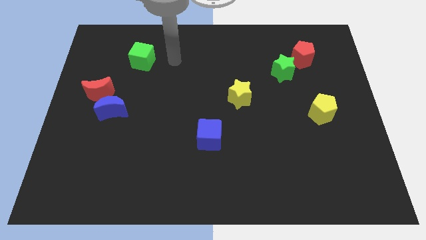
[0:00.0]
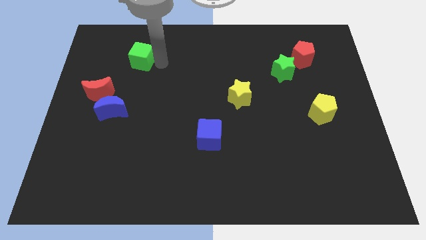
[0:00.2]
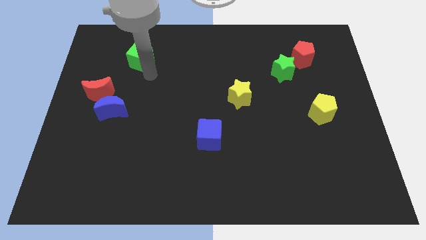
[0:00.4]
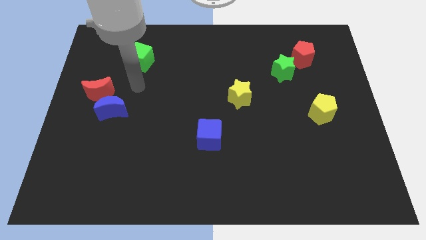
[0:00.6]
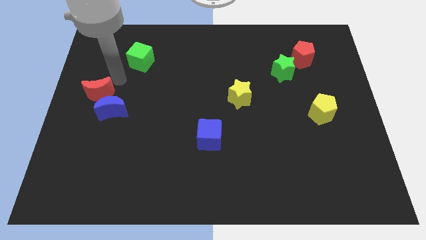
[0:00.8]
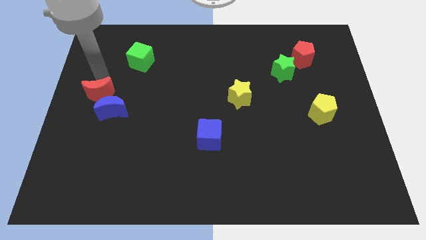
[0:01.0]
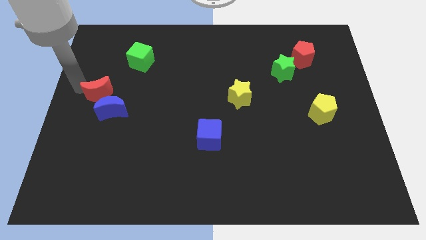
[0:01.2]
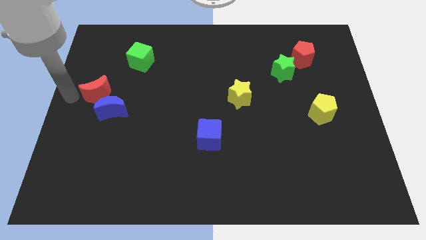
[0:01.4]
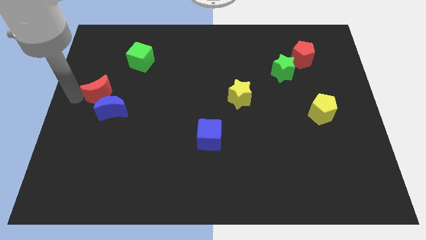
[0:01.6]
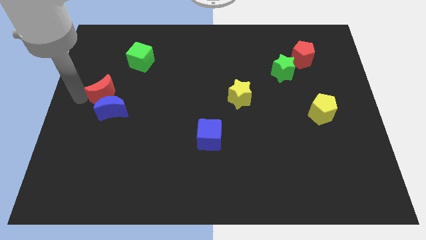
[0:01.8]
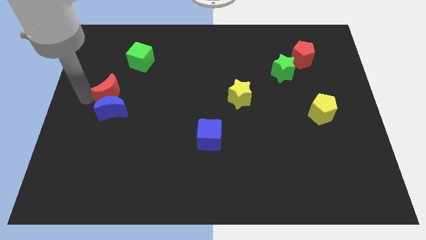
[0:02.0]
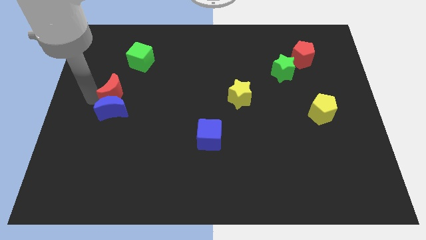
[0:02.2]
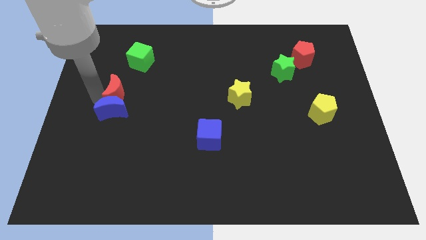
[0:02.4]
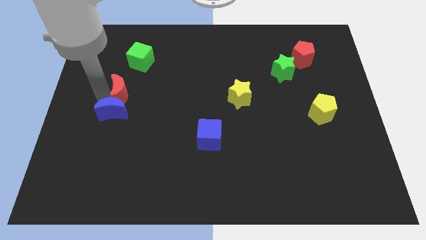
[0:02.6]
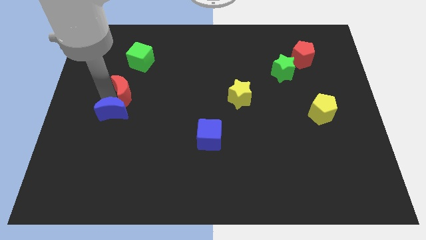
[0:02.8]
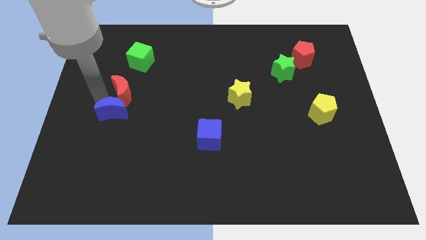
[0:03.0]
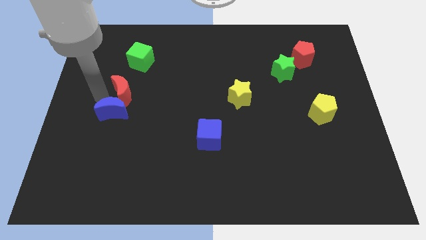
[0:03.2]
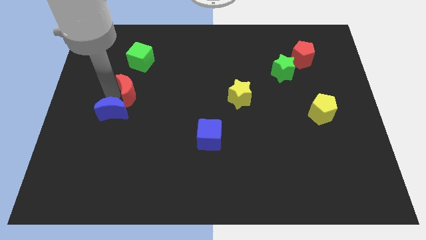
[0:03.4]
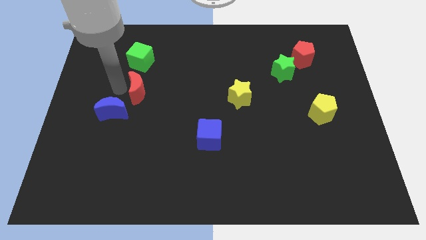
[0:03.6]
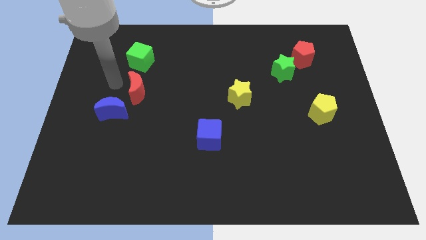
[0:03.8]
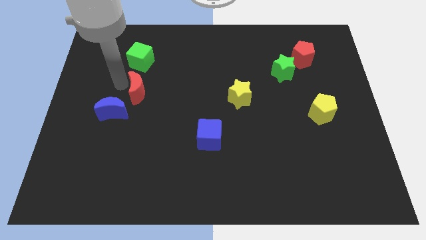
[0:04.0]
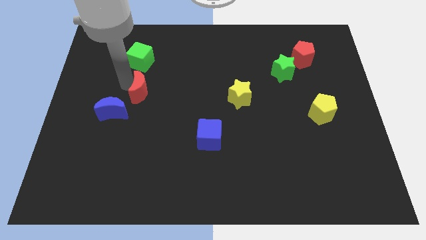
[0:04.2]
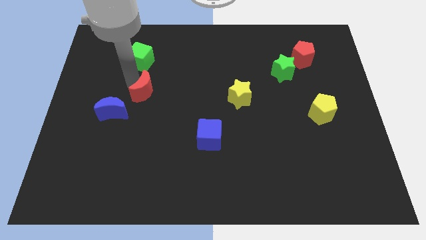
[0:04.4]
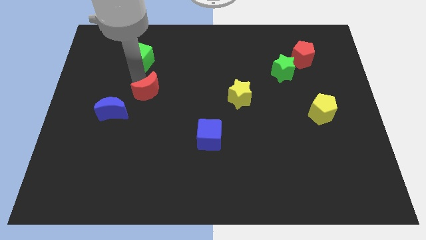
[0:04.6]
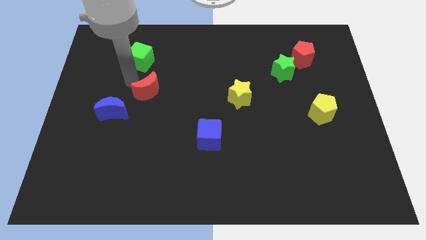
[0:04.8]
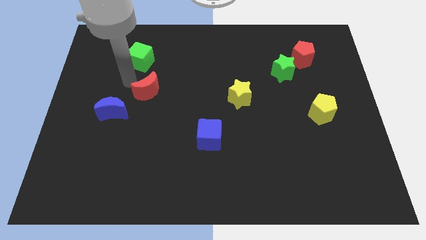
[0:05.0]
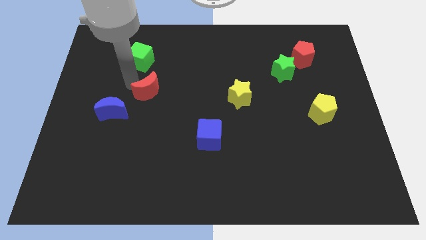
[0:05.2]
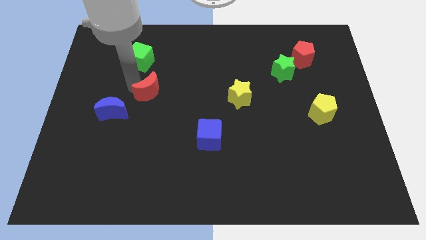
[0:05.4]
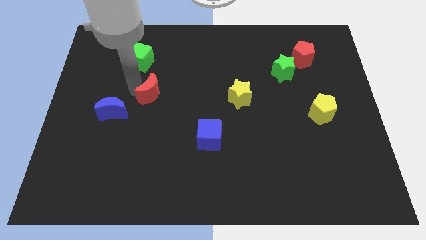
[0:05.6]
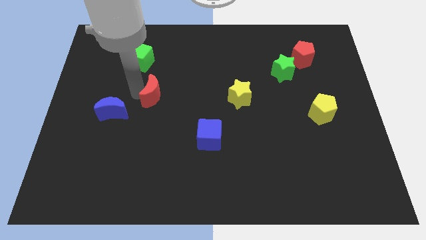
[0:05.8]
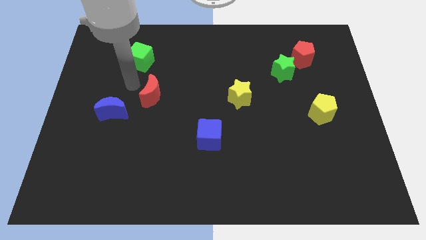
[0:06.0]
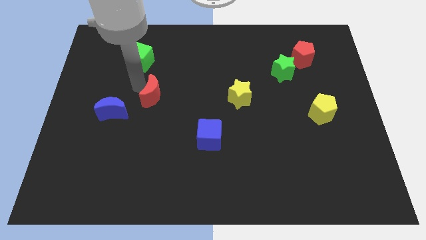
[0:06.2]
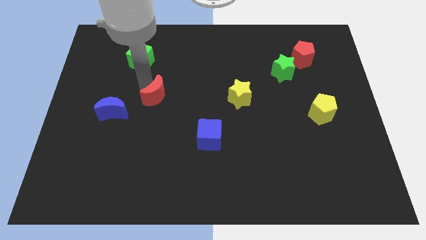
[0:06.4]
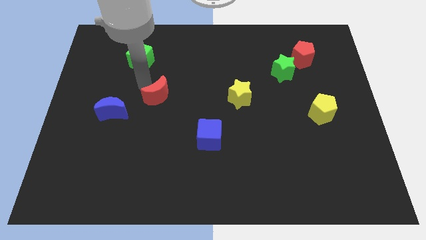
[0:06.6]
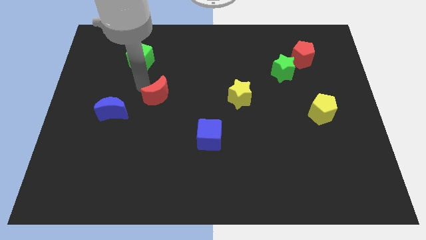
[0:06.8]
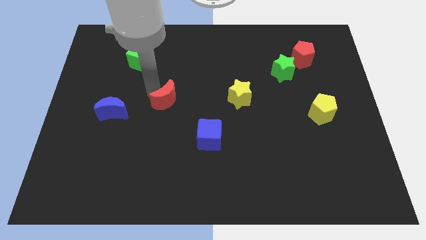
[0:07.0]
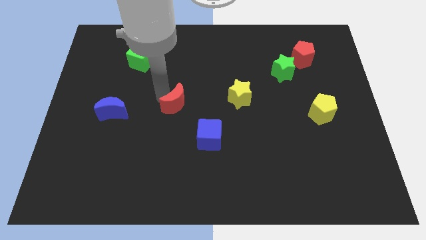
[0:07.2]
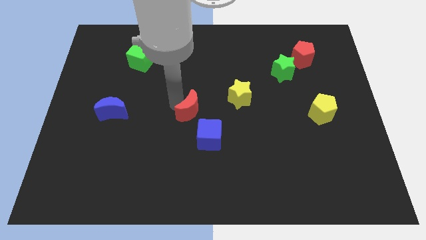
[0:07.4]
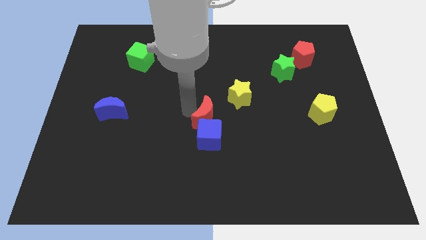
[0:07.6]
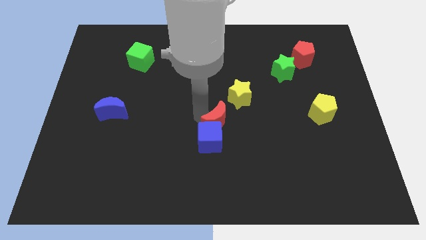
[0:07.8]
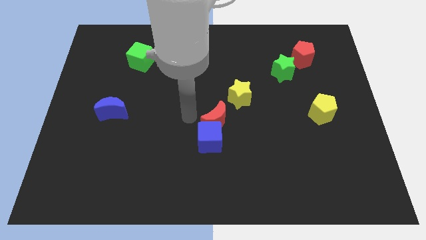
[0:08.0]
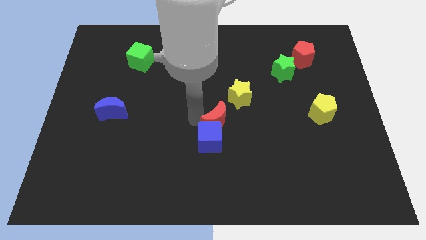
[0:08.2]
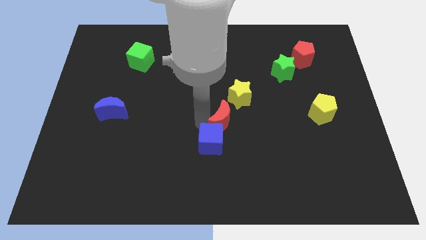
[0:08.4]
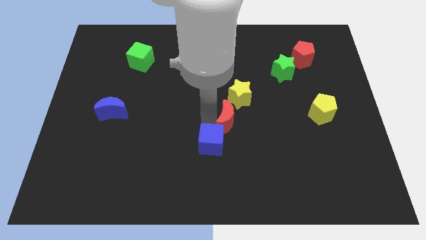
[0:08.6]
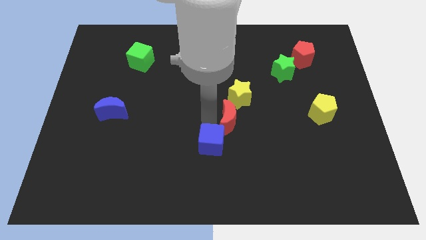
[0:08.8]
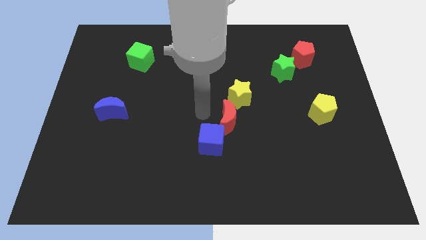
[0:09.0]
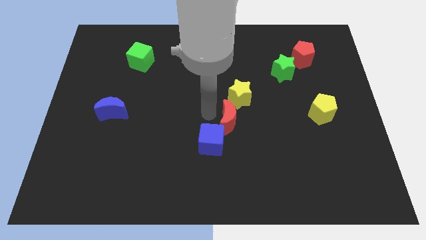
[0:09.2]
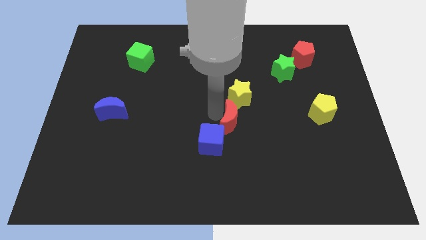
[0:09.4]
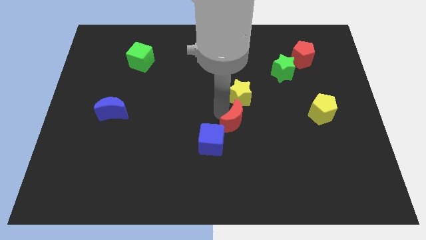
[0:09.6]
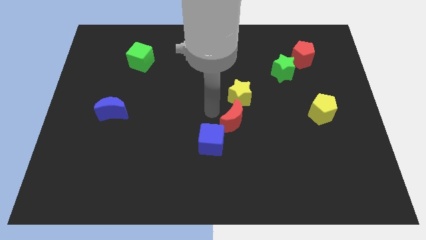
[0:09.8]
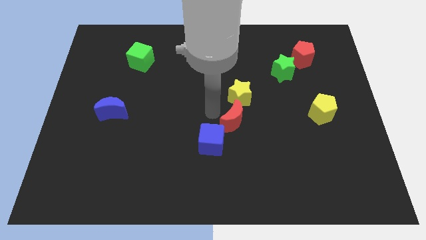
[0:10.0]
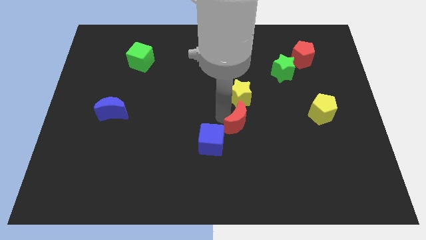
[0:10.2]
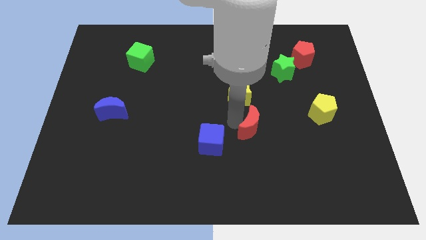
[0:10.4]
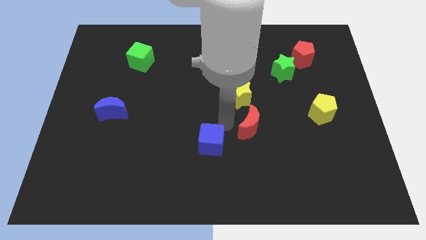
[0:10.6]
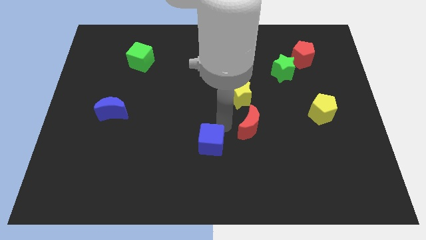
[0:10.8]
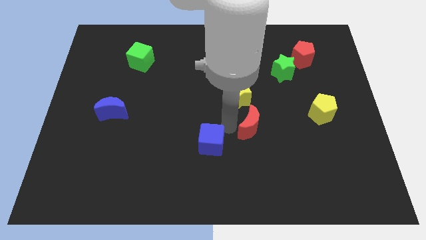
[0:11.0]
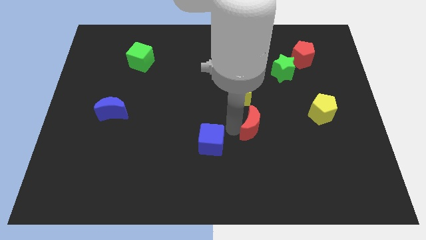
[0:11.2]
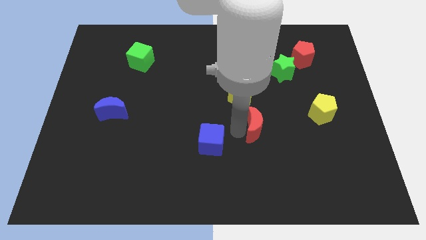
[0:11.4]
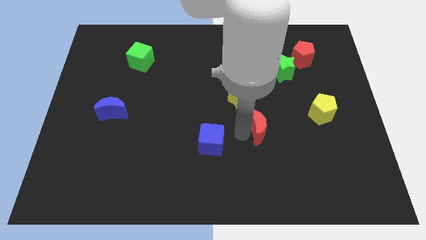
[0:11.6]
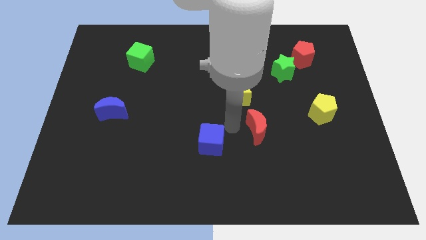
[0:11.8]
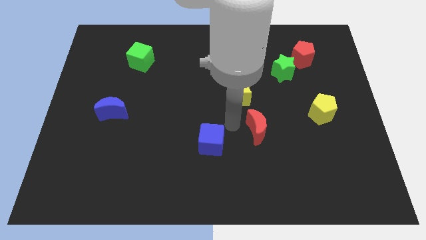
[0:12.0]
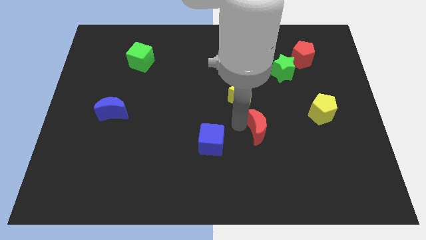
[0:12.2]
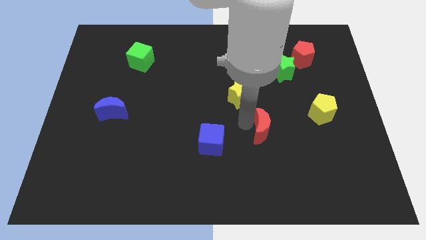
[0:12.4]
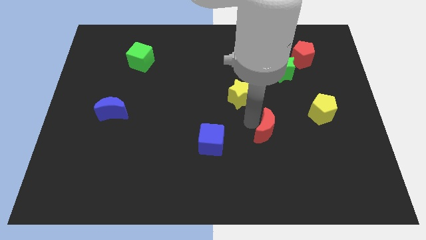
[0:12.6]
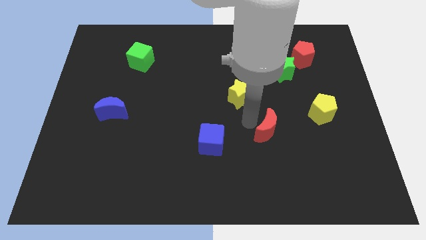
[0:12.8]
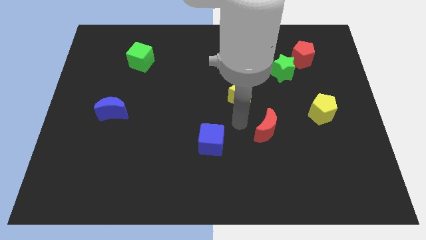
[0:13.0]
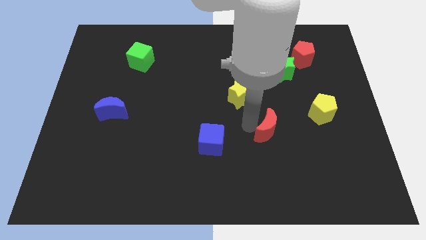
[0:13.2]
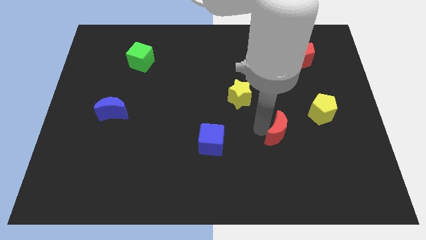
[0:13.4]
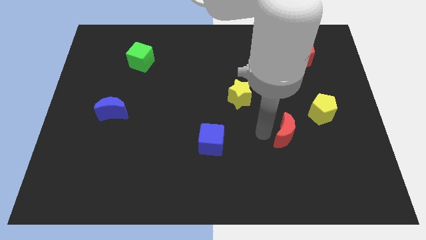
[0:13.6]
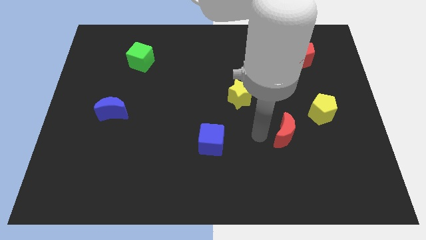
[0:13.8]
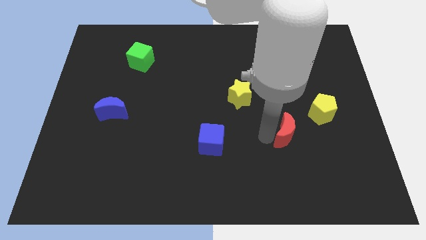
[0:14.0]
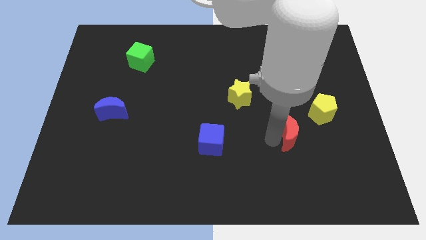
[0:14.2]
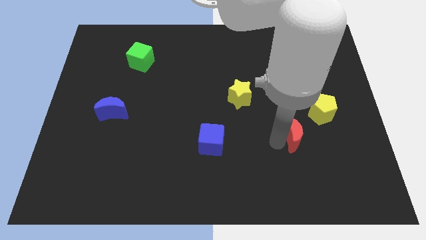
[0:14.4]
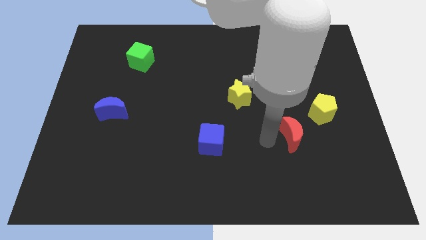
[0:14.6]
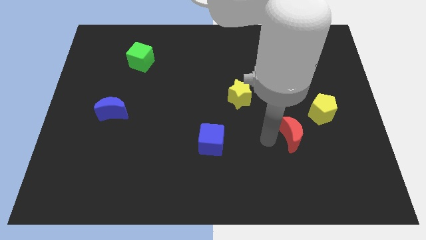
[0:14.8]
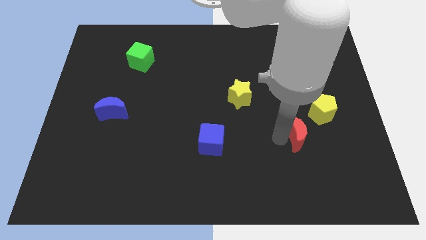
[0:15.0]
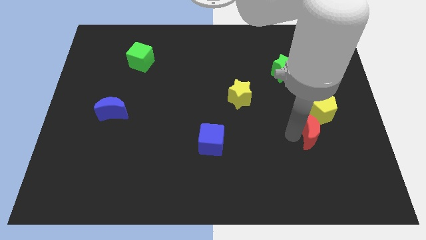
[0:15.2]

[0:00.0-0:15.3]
push the red moon to the bottom of the yellow pentagon
